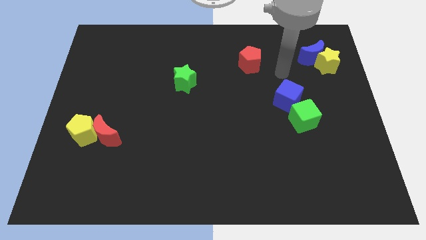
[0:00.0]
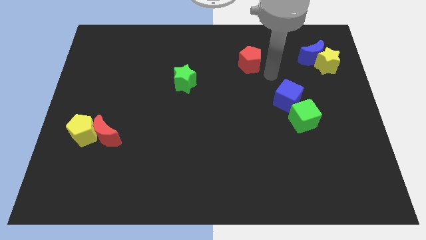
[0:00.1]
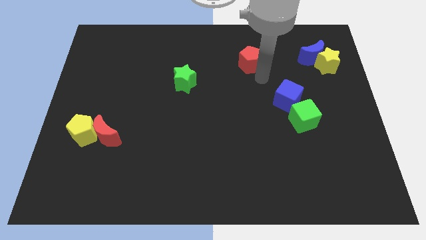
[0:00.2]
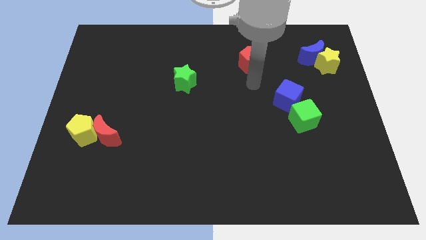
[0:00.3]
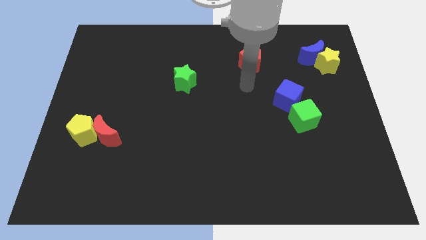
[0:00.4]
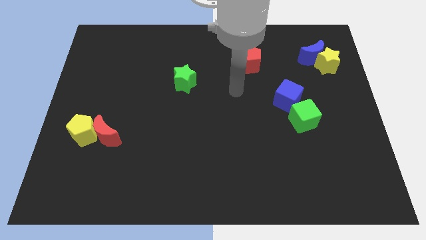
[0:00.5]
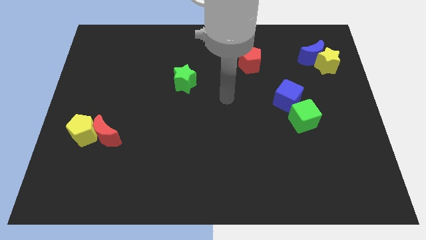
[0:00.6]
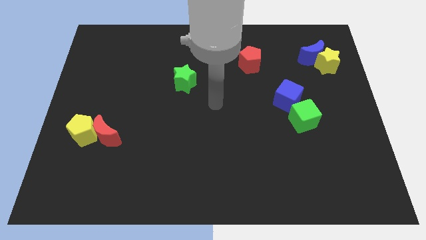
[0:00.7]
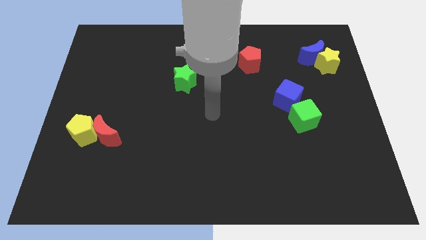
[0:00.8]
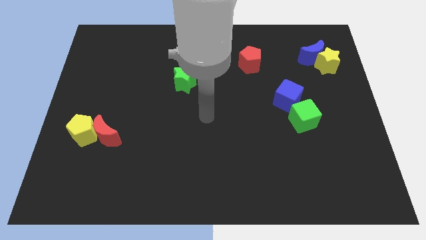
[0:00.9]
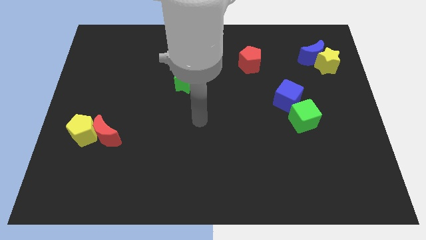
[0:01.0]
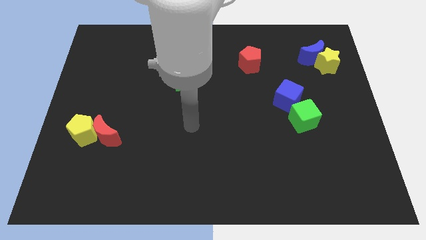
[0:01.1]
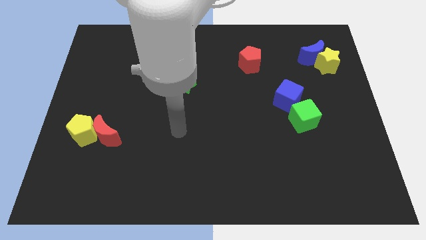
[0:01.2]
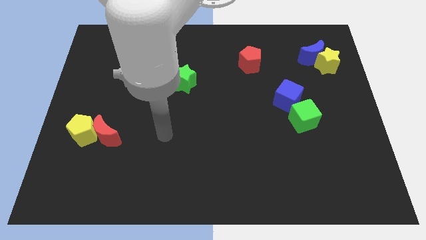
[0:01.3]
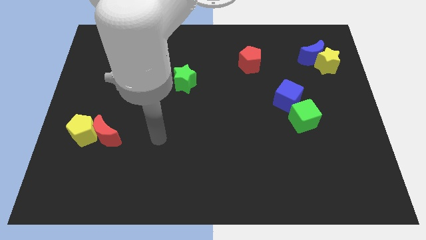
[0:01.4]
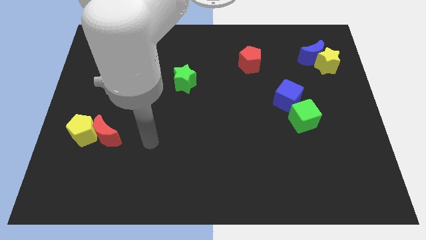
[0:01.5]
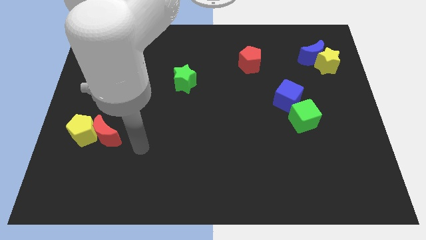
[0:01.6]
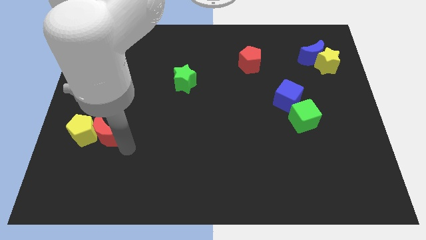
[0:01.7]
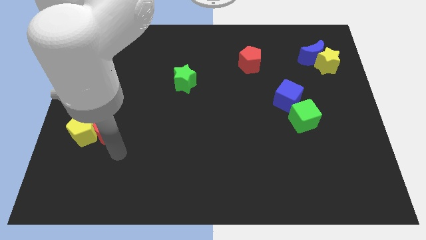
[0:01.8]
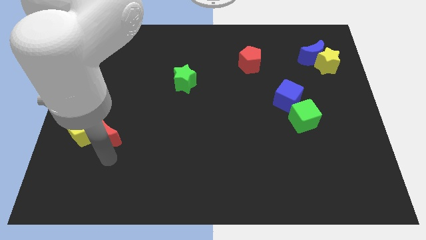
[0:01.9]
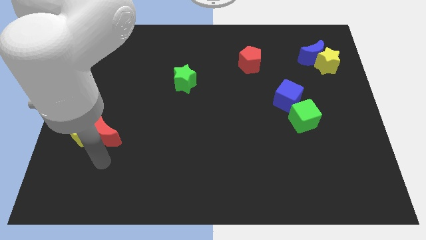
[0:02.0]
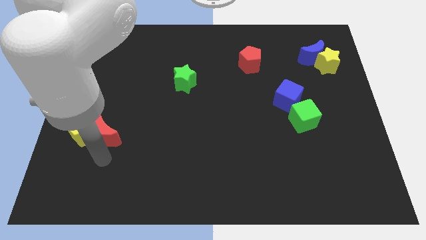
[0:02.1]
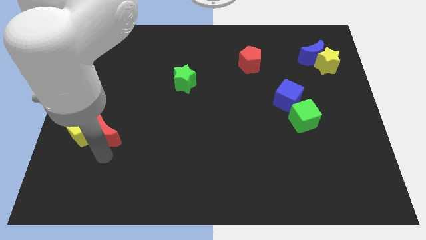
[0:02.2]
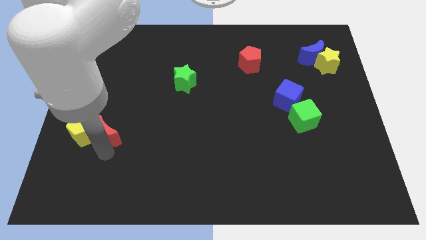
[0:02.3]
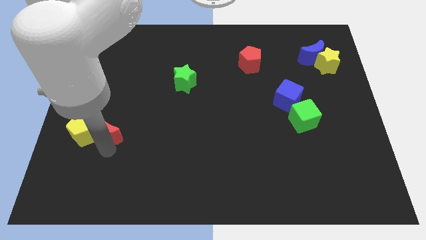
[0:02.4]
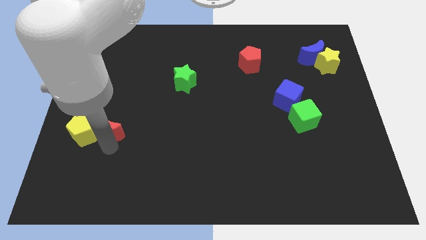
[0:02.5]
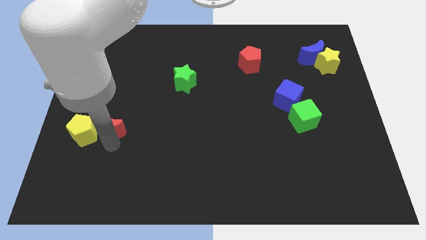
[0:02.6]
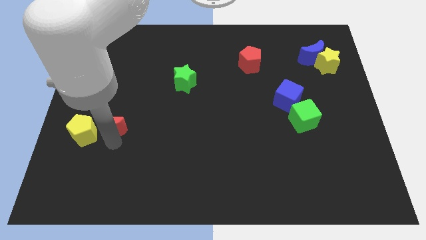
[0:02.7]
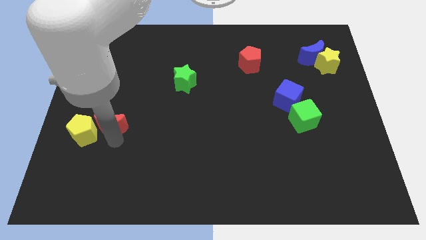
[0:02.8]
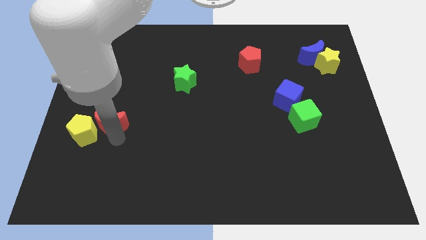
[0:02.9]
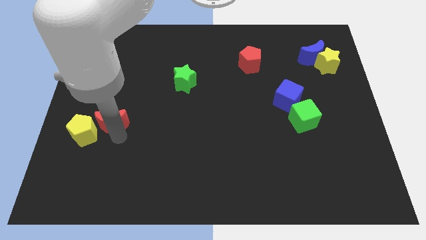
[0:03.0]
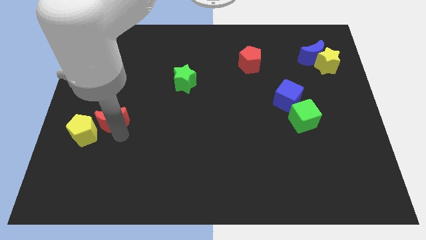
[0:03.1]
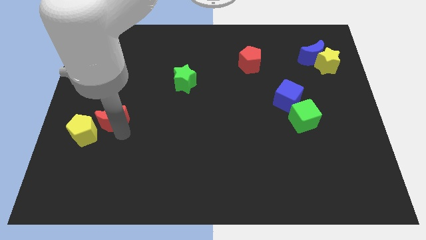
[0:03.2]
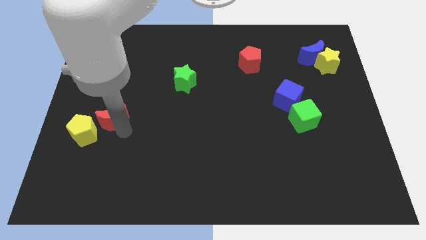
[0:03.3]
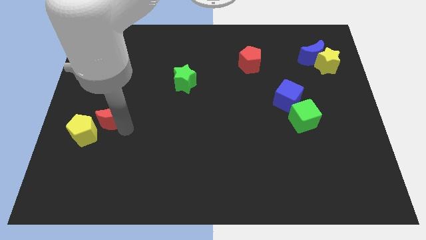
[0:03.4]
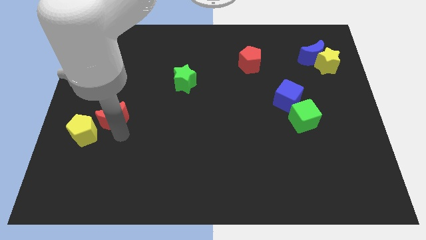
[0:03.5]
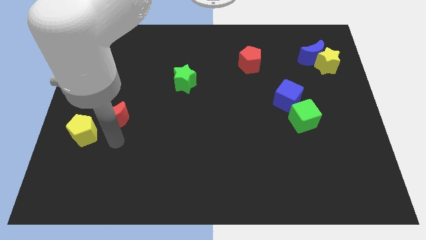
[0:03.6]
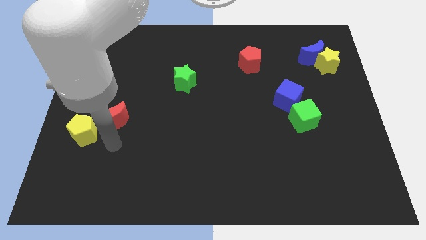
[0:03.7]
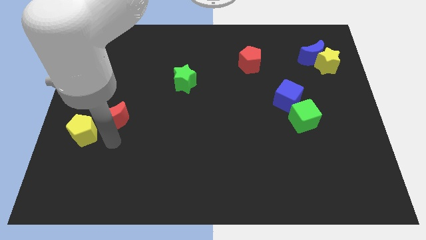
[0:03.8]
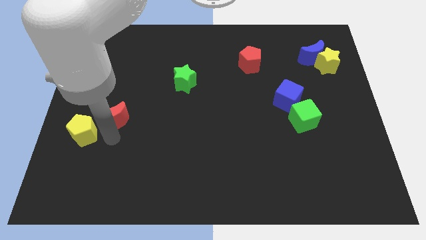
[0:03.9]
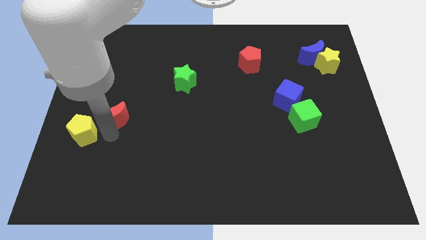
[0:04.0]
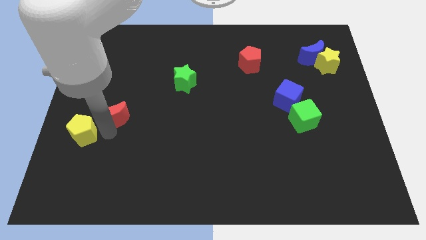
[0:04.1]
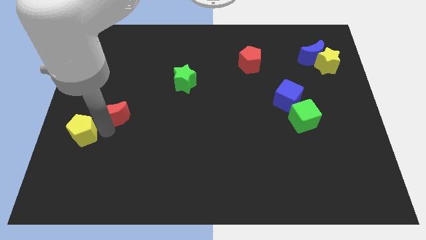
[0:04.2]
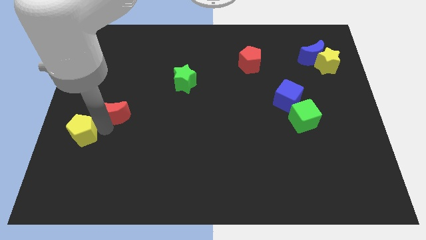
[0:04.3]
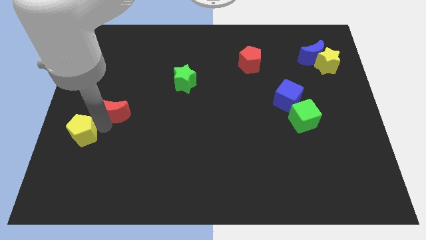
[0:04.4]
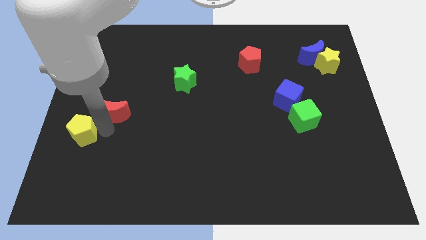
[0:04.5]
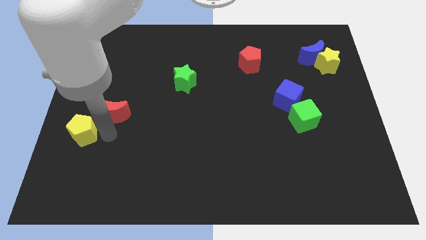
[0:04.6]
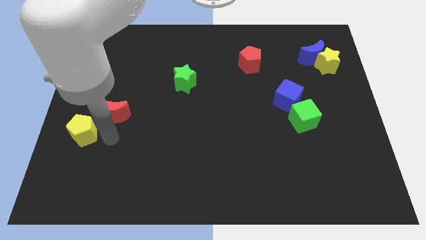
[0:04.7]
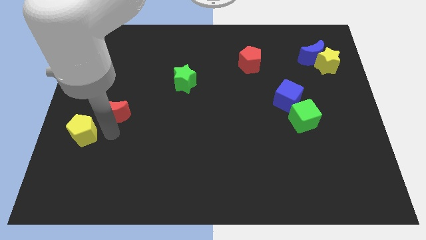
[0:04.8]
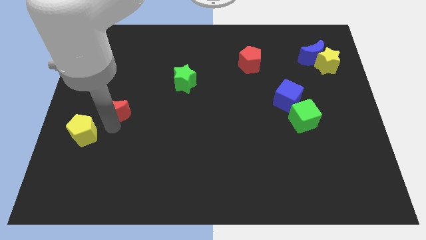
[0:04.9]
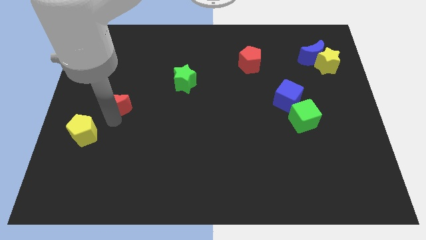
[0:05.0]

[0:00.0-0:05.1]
push the red moon a bit upwards

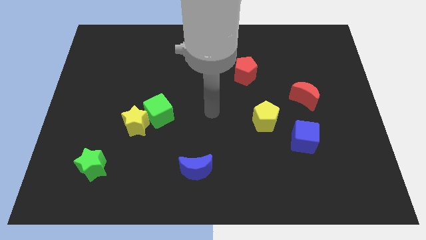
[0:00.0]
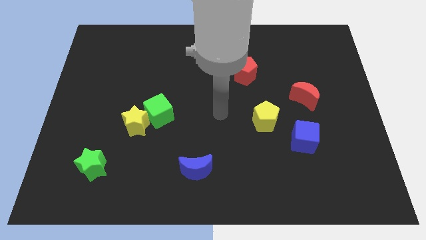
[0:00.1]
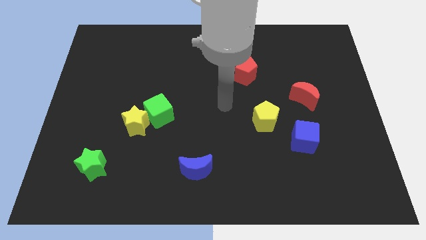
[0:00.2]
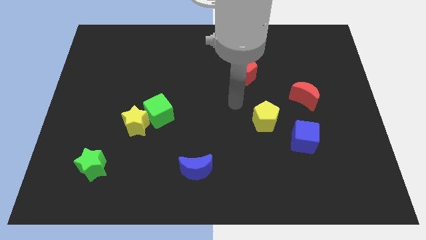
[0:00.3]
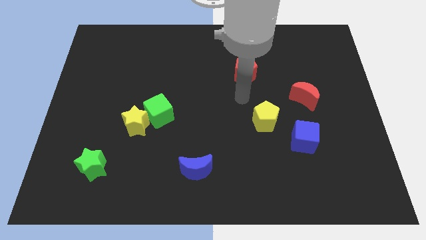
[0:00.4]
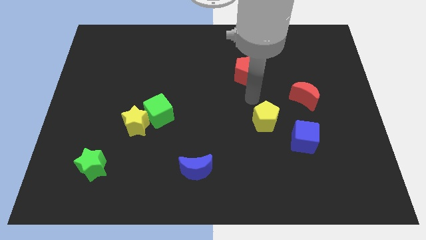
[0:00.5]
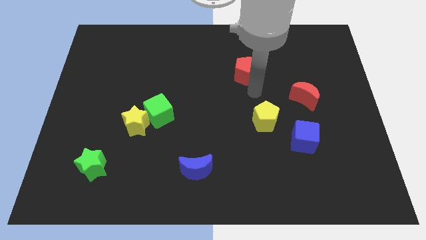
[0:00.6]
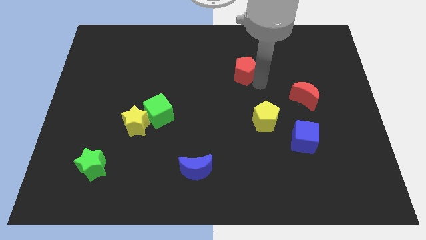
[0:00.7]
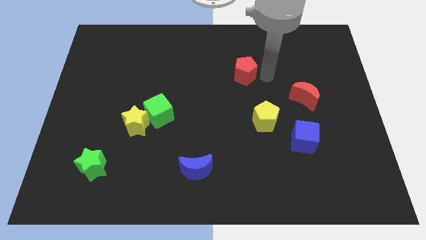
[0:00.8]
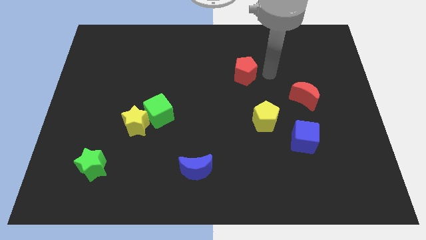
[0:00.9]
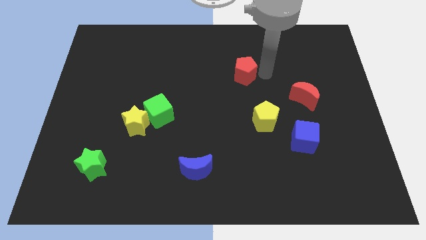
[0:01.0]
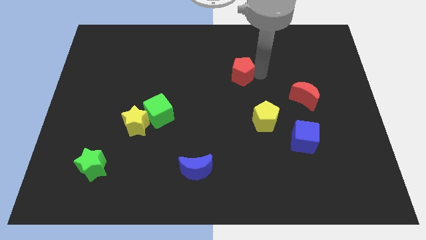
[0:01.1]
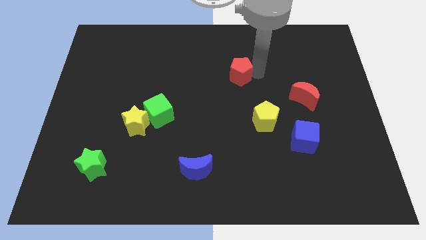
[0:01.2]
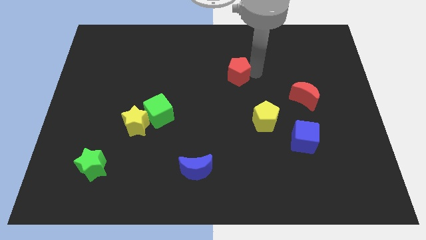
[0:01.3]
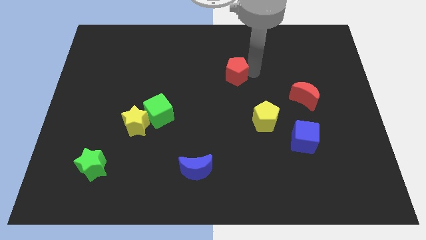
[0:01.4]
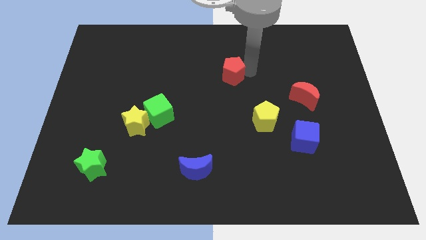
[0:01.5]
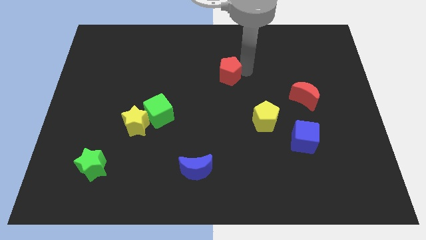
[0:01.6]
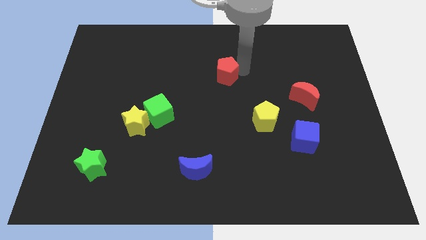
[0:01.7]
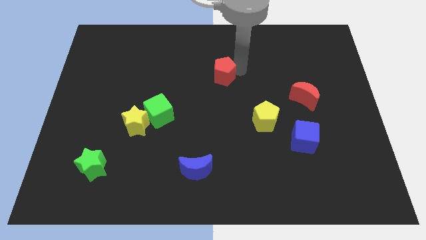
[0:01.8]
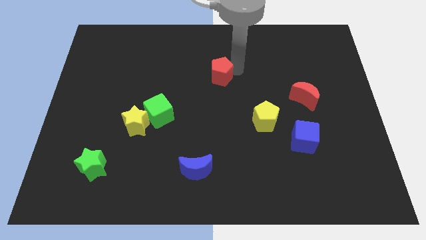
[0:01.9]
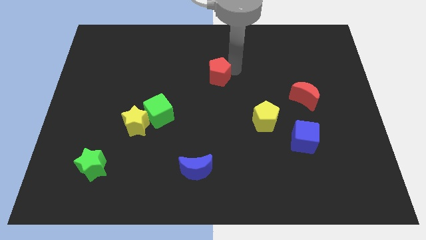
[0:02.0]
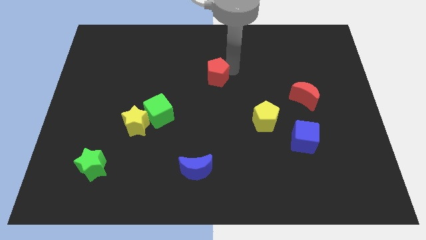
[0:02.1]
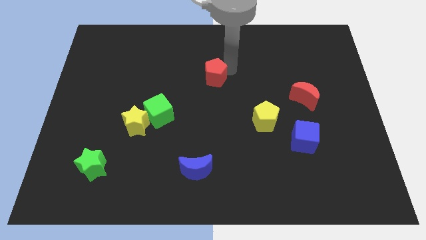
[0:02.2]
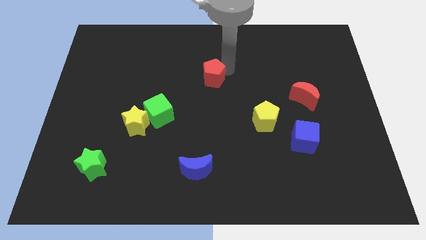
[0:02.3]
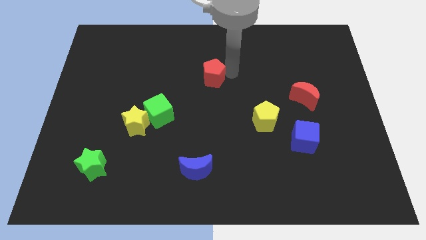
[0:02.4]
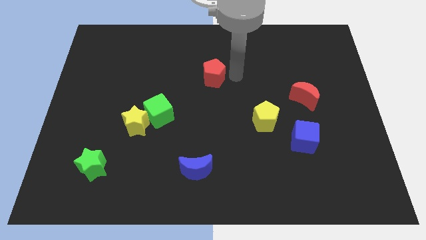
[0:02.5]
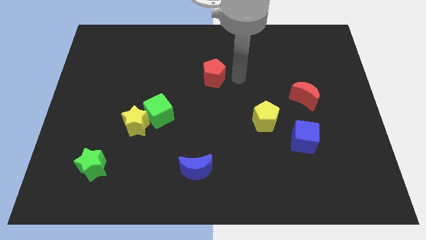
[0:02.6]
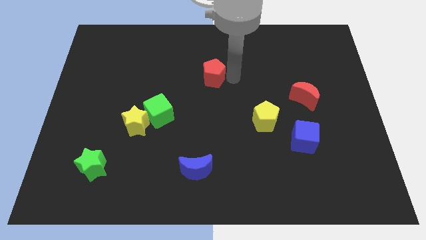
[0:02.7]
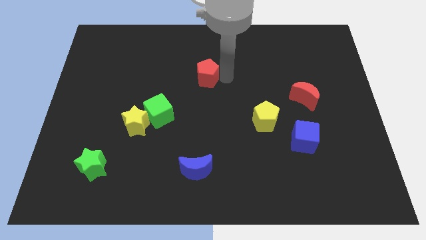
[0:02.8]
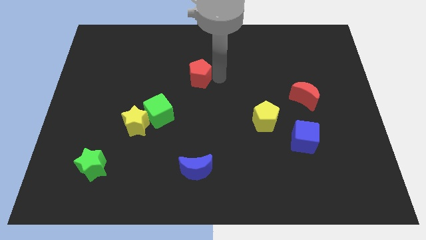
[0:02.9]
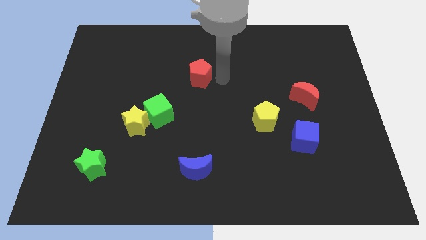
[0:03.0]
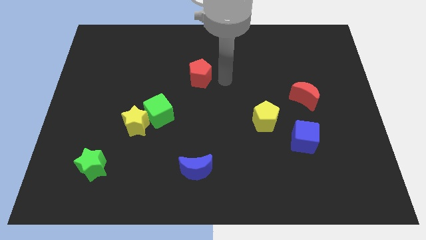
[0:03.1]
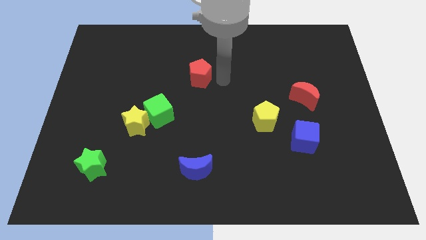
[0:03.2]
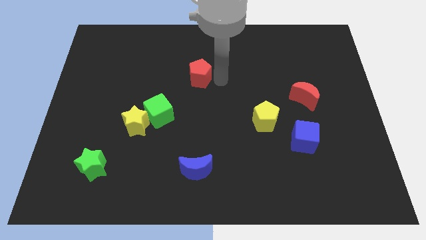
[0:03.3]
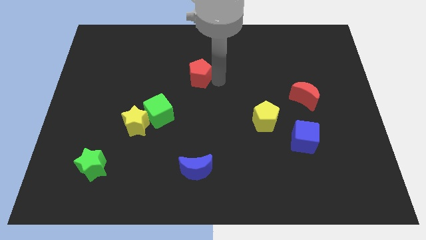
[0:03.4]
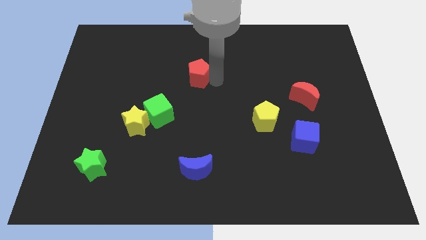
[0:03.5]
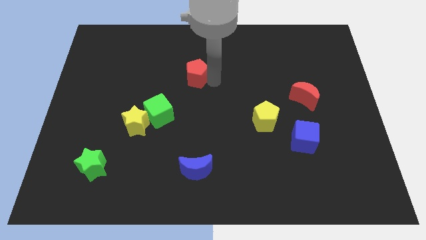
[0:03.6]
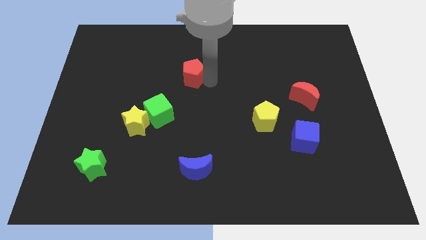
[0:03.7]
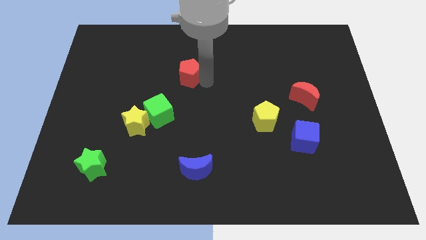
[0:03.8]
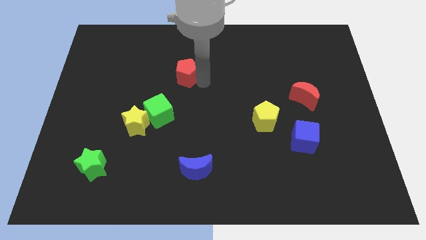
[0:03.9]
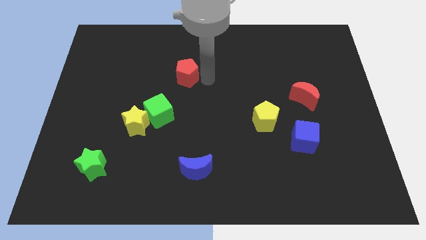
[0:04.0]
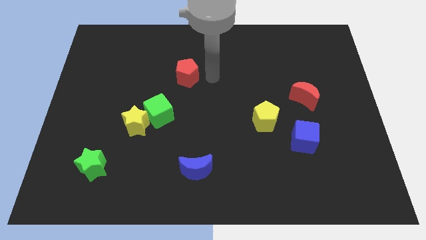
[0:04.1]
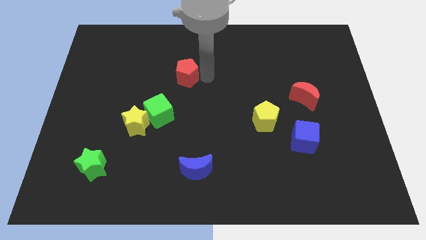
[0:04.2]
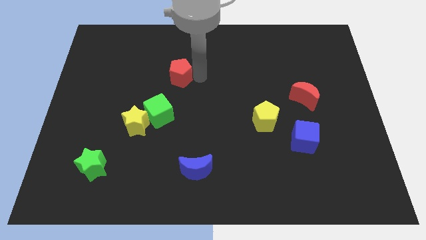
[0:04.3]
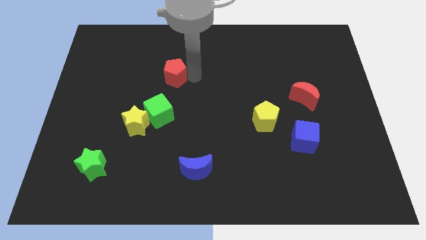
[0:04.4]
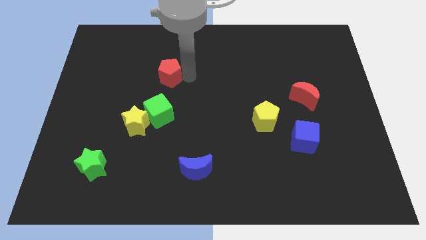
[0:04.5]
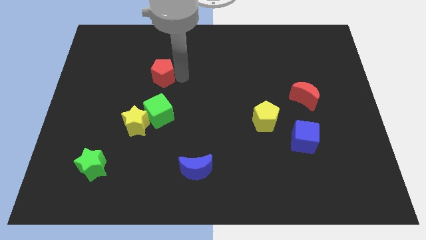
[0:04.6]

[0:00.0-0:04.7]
slide the red pentagon to the left
